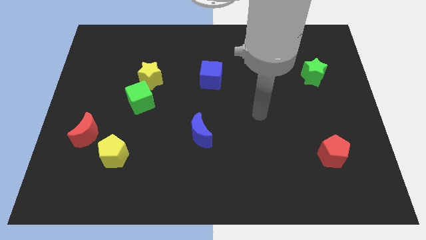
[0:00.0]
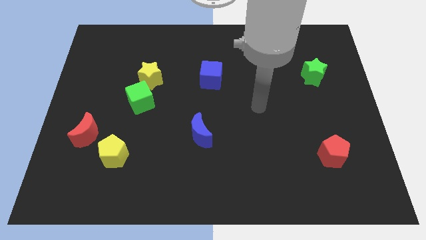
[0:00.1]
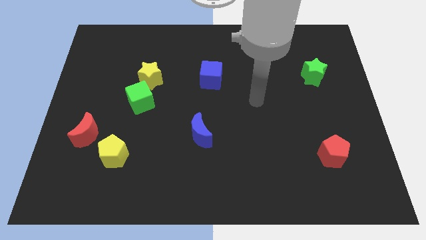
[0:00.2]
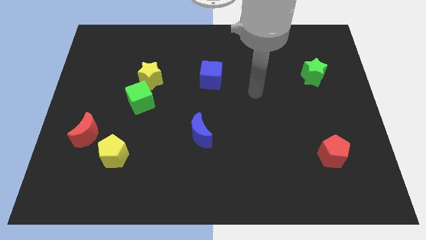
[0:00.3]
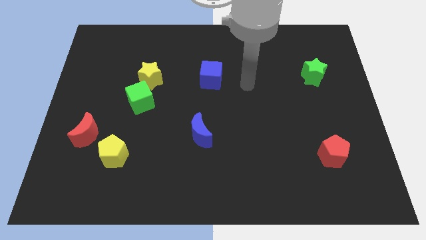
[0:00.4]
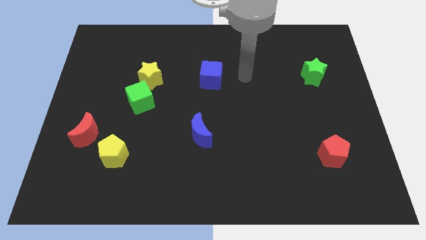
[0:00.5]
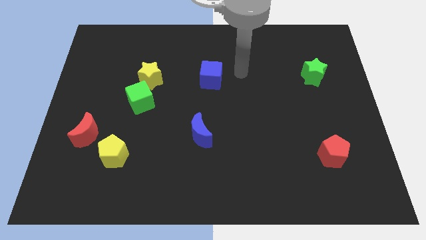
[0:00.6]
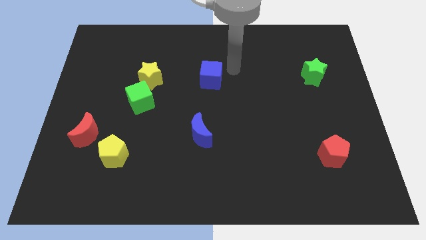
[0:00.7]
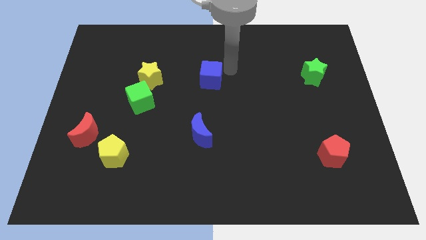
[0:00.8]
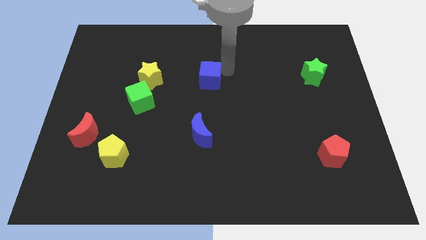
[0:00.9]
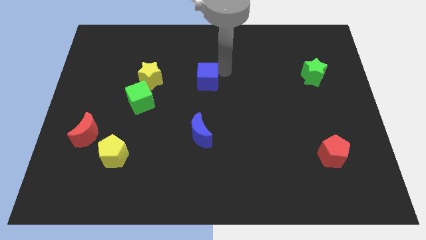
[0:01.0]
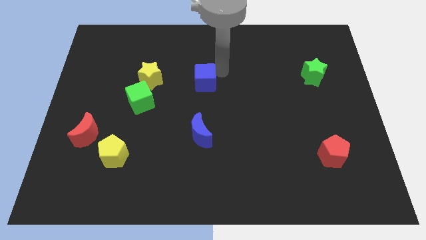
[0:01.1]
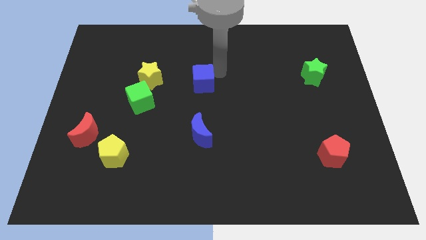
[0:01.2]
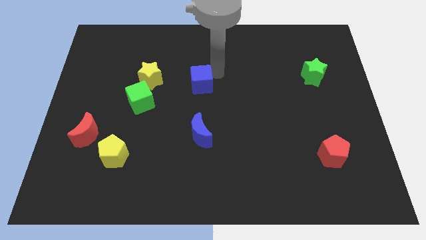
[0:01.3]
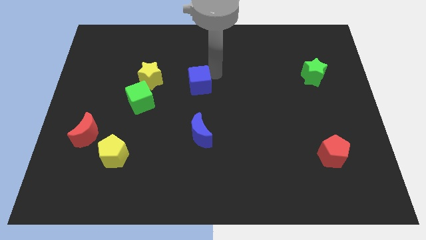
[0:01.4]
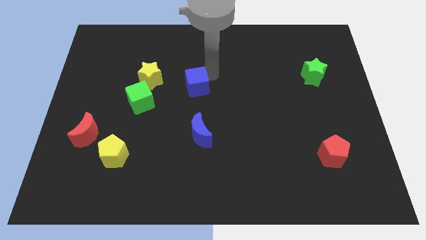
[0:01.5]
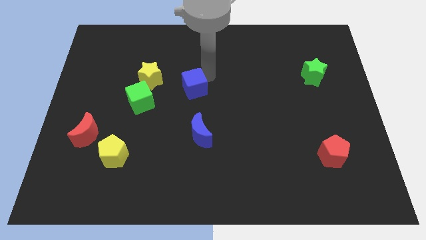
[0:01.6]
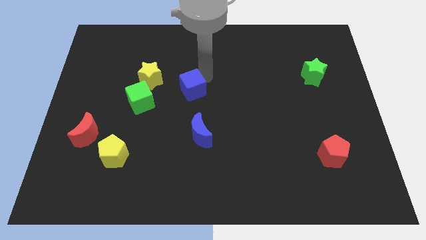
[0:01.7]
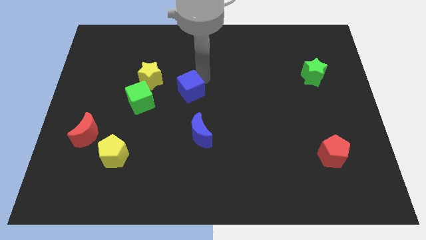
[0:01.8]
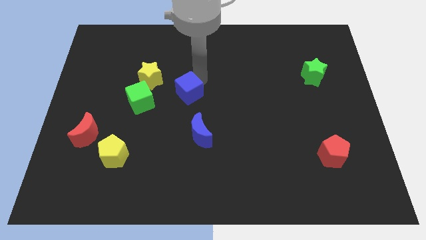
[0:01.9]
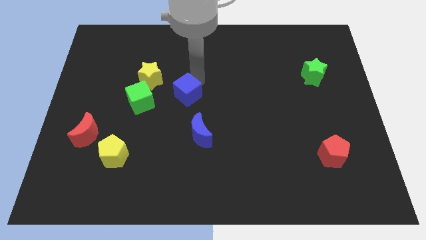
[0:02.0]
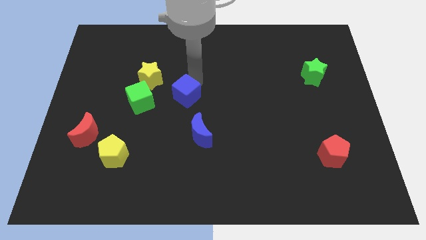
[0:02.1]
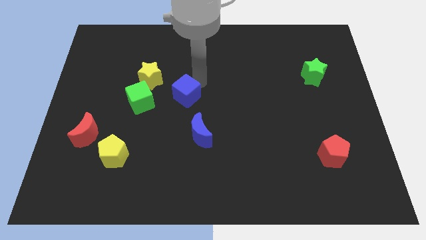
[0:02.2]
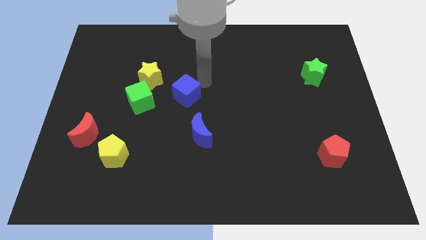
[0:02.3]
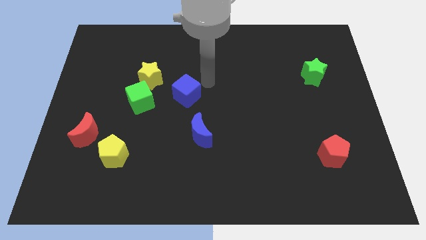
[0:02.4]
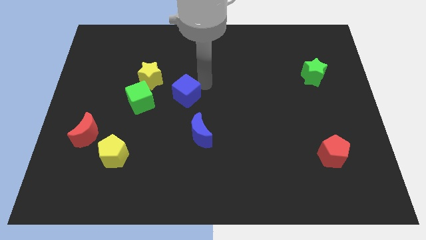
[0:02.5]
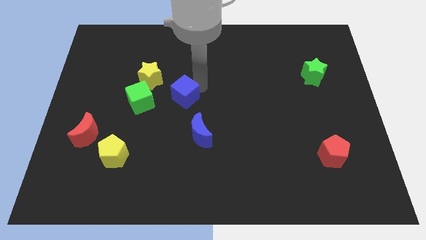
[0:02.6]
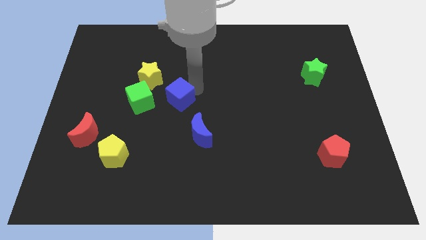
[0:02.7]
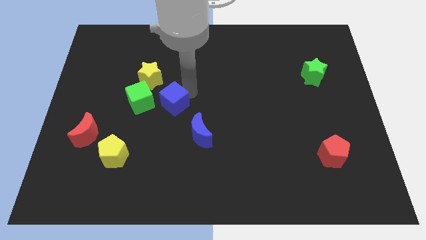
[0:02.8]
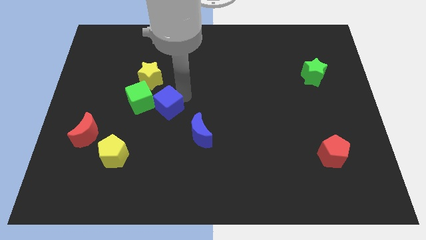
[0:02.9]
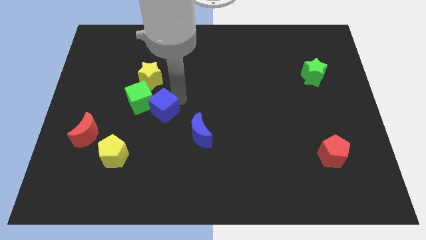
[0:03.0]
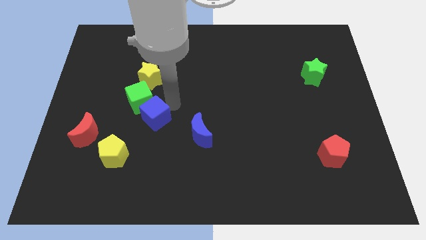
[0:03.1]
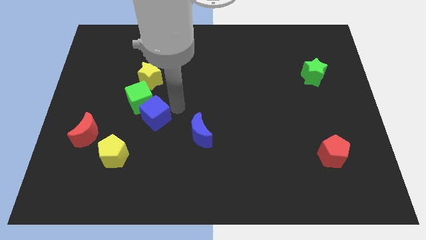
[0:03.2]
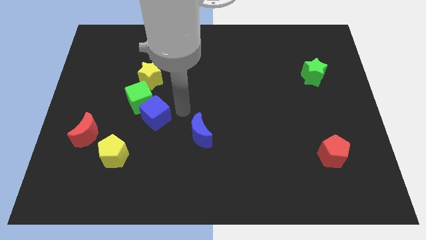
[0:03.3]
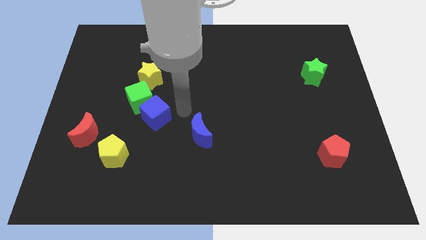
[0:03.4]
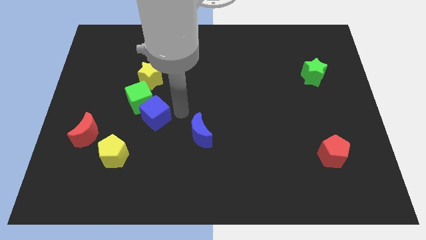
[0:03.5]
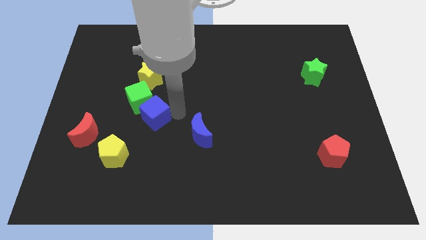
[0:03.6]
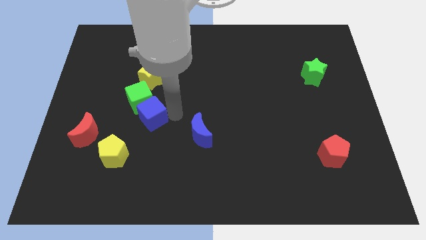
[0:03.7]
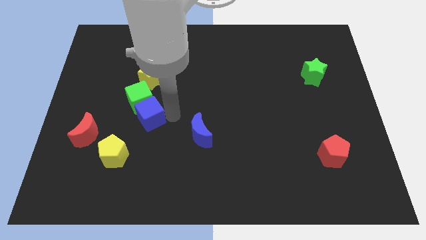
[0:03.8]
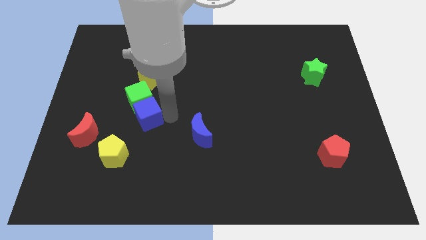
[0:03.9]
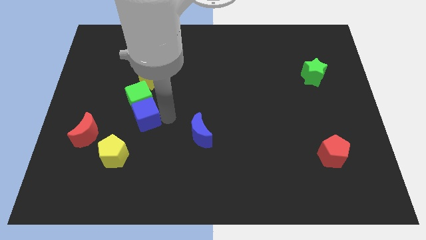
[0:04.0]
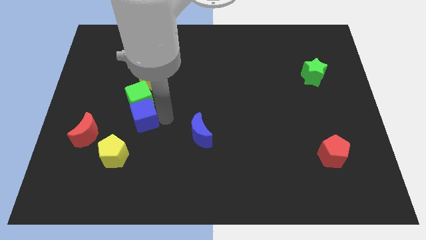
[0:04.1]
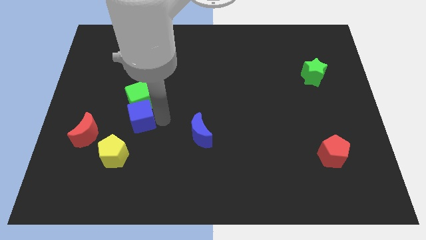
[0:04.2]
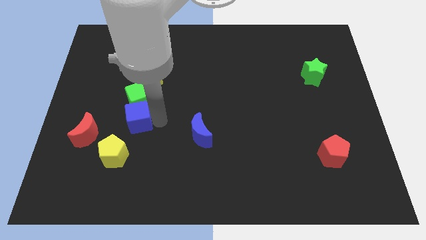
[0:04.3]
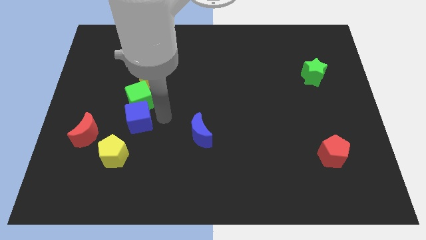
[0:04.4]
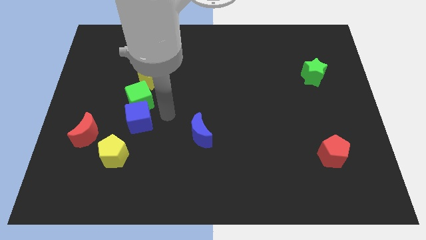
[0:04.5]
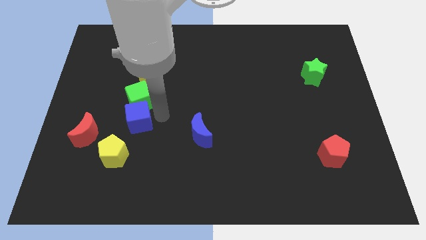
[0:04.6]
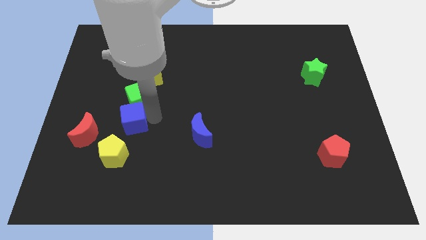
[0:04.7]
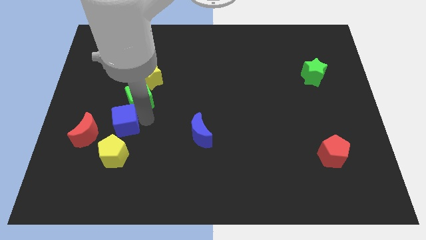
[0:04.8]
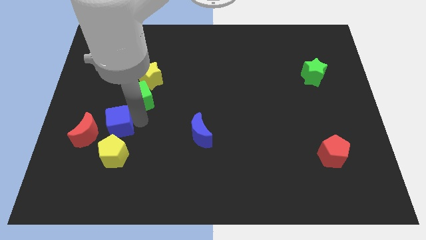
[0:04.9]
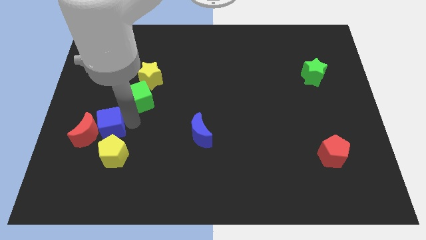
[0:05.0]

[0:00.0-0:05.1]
slide the blue cube towards the red moon

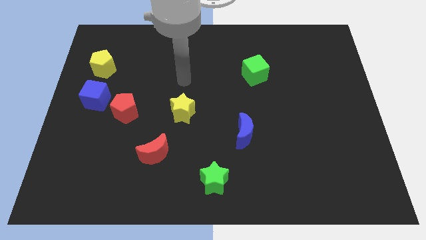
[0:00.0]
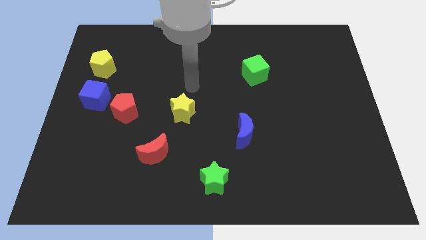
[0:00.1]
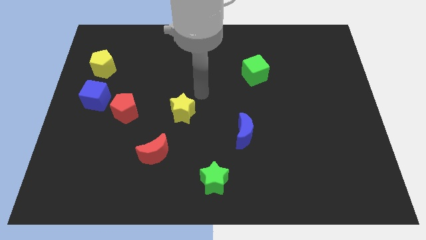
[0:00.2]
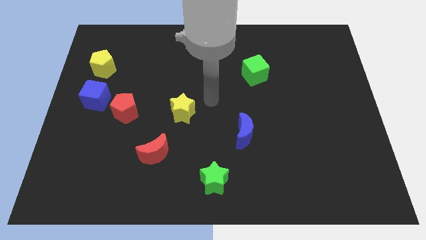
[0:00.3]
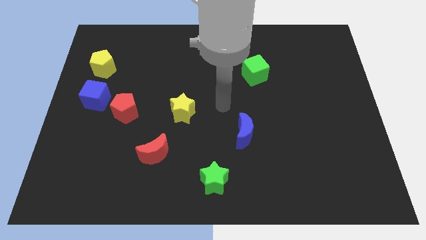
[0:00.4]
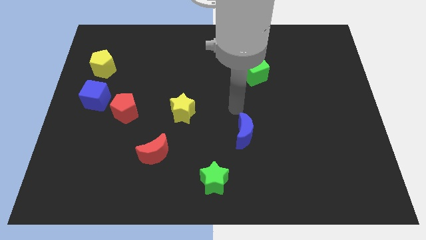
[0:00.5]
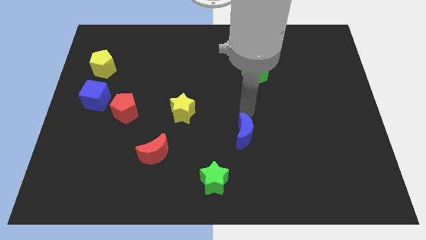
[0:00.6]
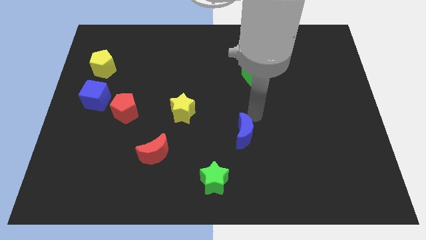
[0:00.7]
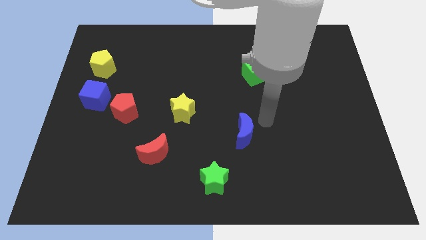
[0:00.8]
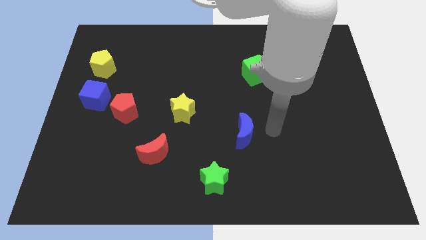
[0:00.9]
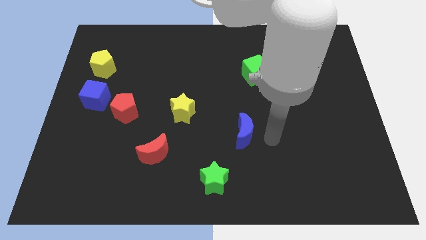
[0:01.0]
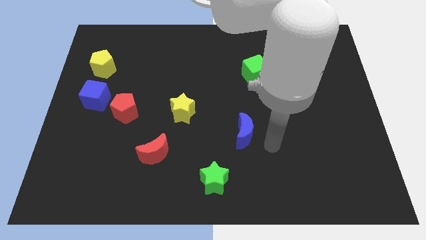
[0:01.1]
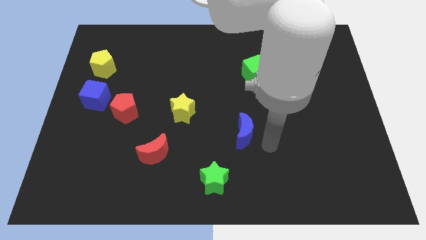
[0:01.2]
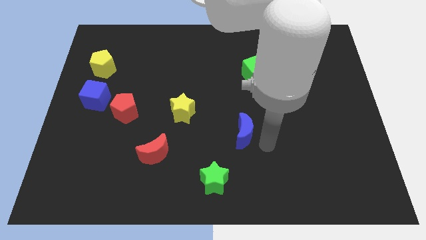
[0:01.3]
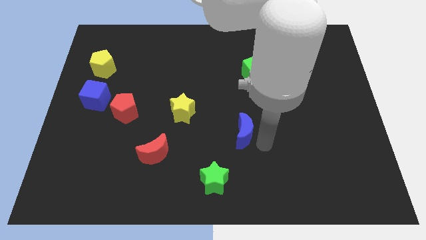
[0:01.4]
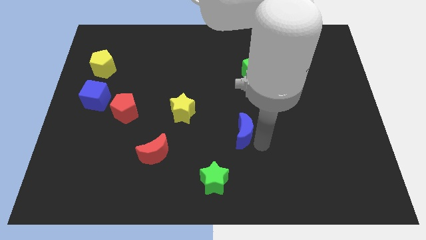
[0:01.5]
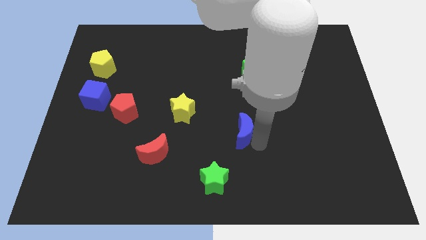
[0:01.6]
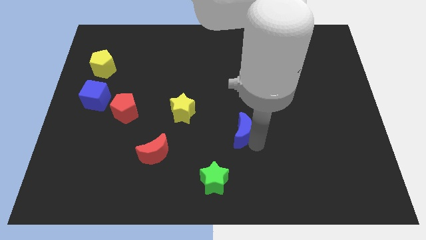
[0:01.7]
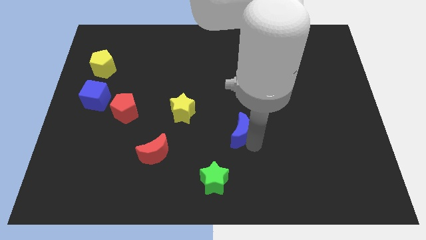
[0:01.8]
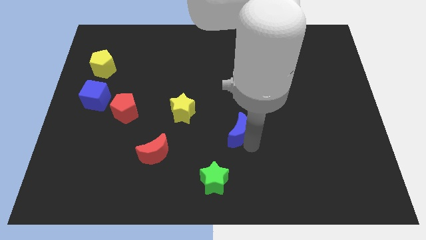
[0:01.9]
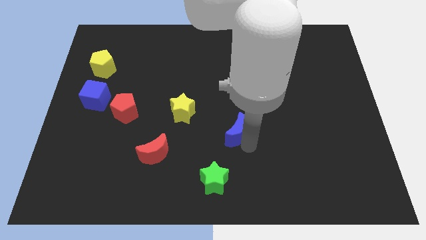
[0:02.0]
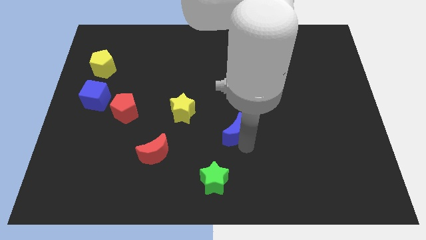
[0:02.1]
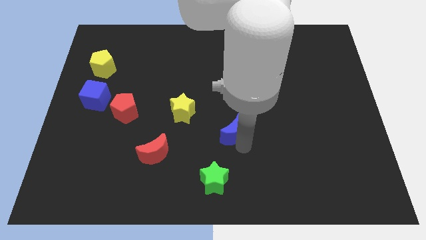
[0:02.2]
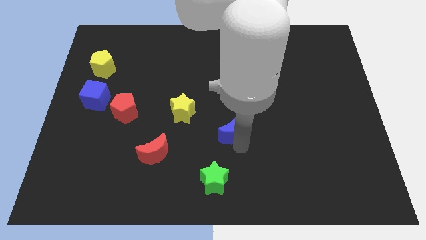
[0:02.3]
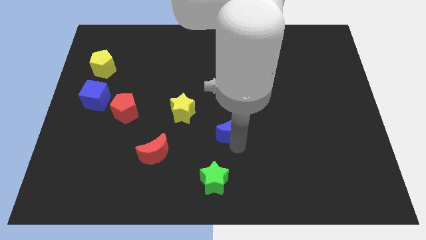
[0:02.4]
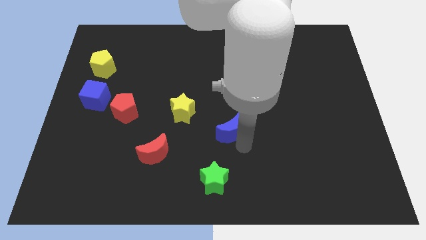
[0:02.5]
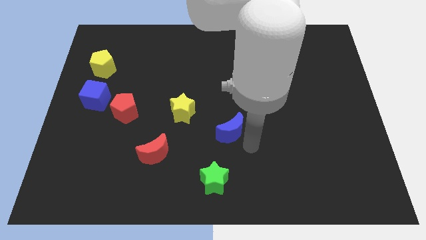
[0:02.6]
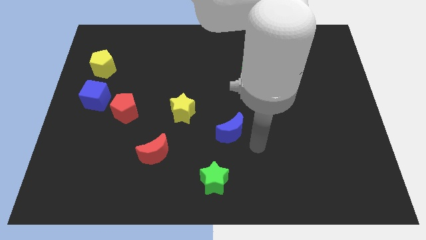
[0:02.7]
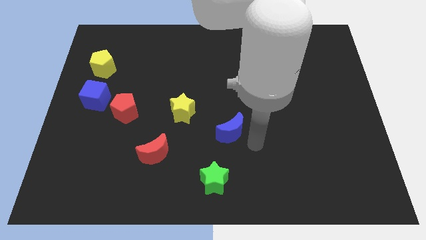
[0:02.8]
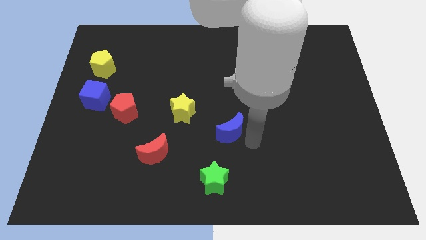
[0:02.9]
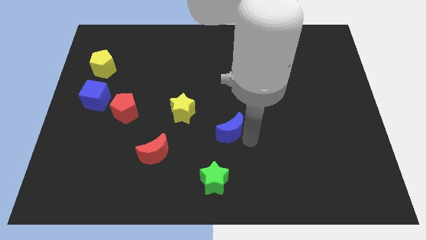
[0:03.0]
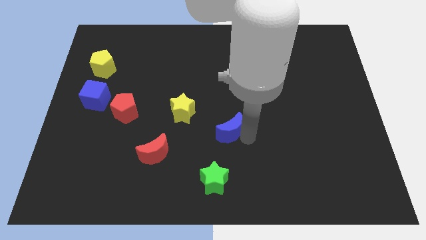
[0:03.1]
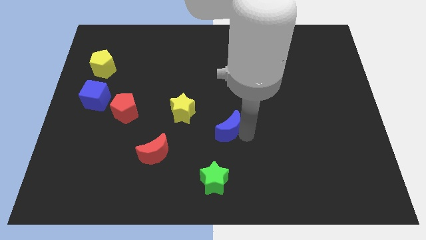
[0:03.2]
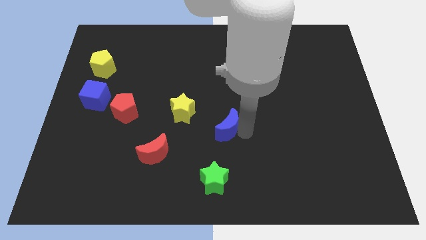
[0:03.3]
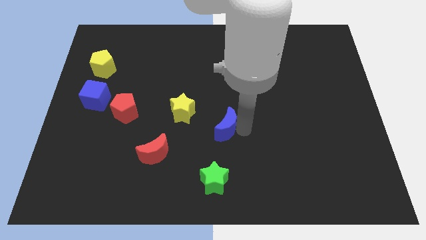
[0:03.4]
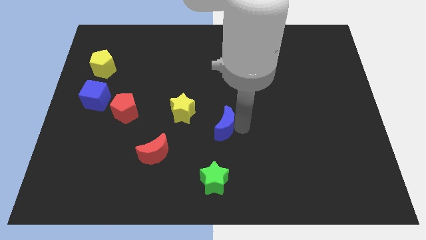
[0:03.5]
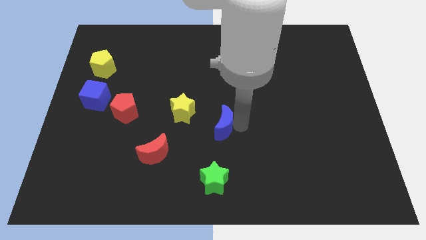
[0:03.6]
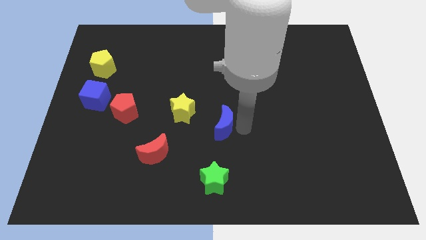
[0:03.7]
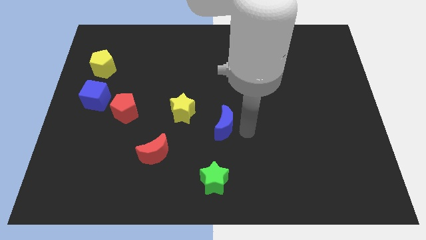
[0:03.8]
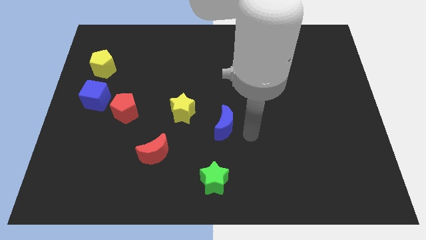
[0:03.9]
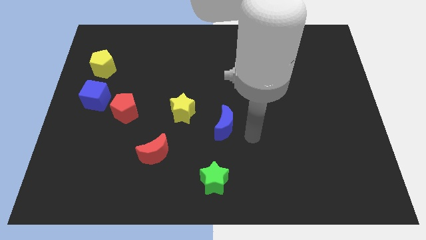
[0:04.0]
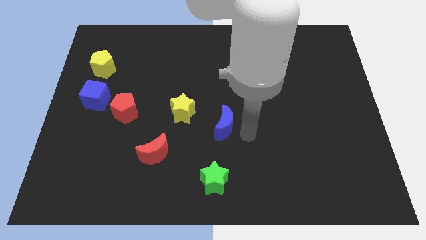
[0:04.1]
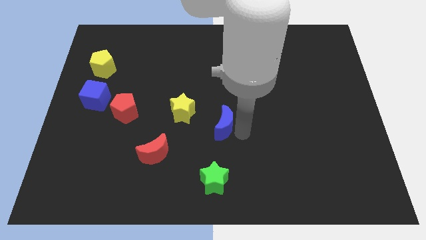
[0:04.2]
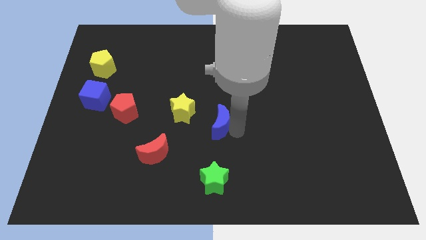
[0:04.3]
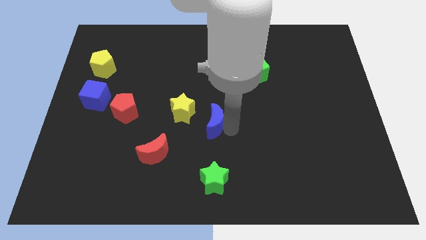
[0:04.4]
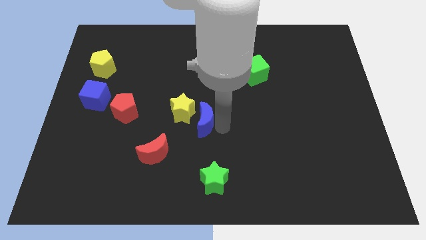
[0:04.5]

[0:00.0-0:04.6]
push the blue moon next to the yellow star
